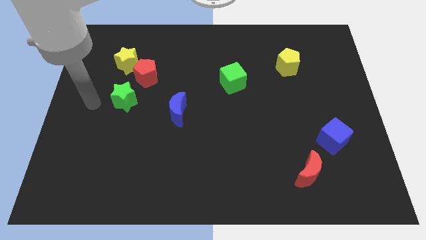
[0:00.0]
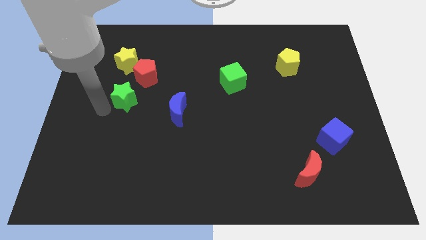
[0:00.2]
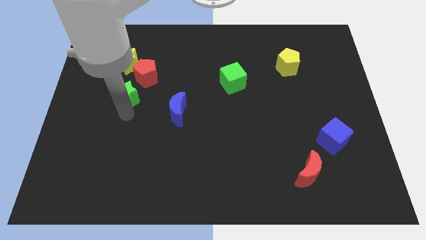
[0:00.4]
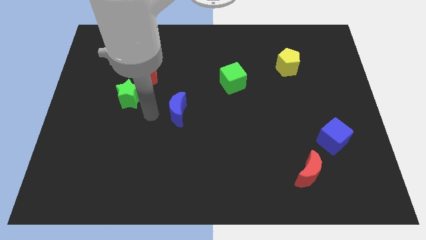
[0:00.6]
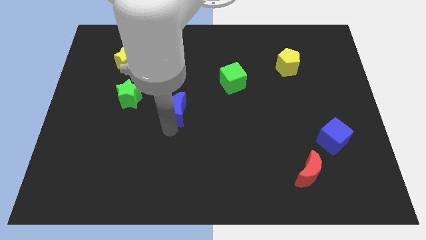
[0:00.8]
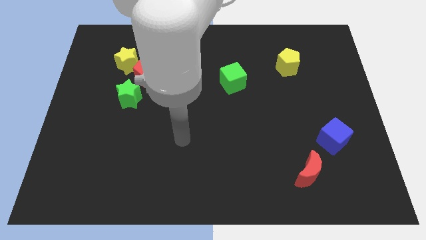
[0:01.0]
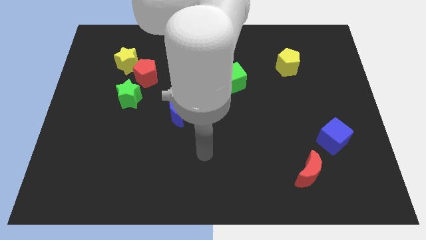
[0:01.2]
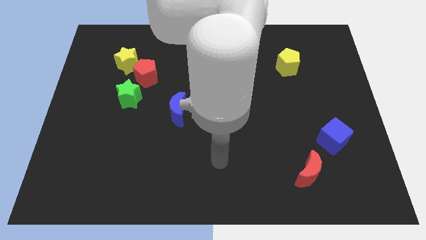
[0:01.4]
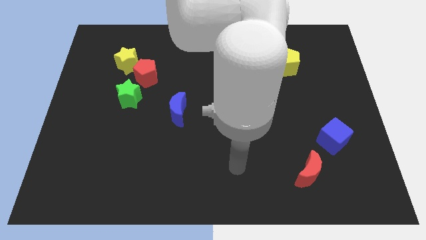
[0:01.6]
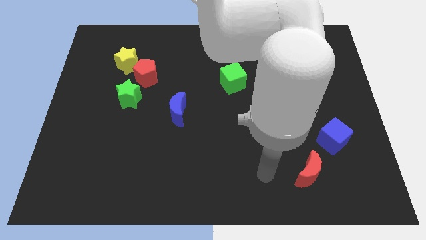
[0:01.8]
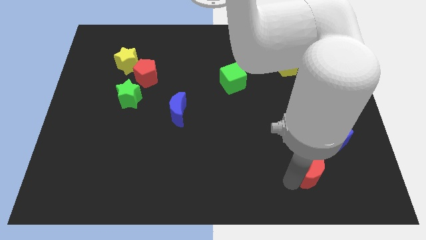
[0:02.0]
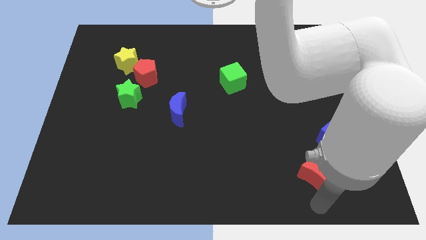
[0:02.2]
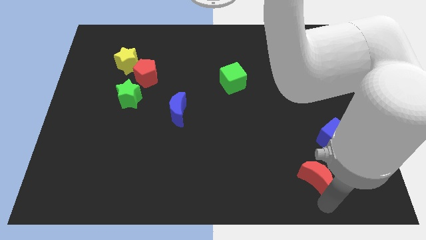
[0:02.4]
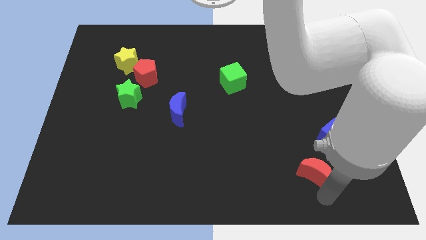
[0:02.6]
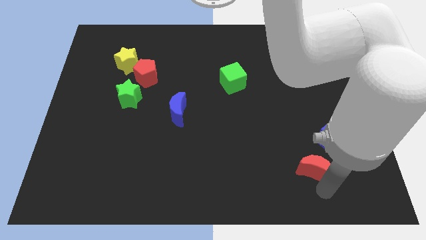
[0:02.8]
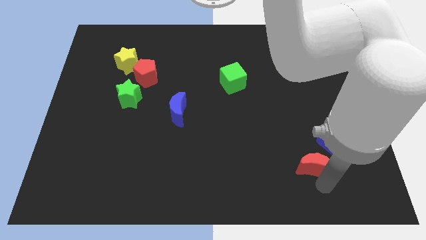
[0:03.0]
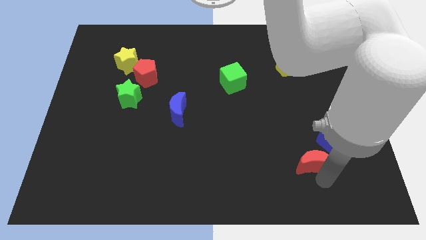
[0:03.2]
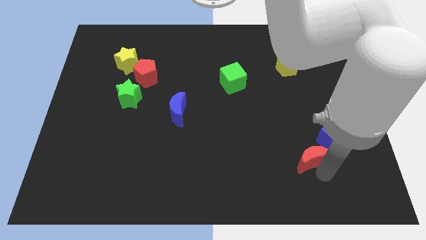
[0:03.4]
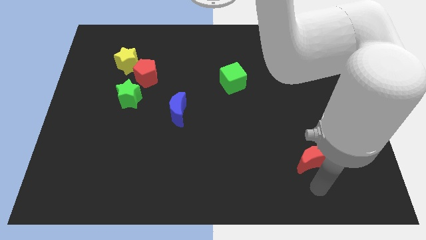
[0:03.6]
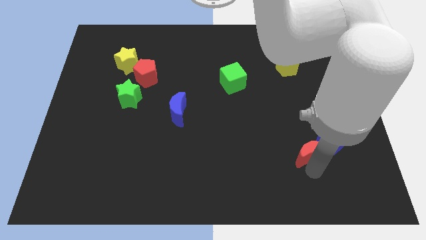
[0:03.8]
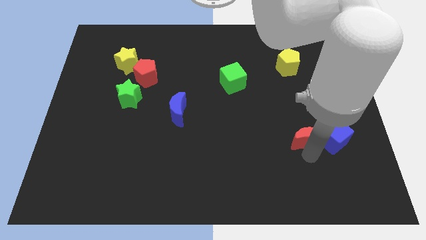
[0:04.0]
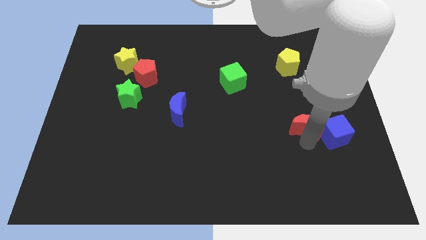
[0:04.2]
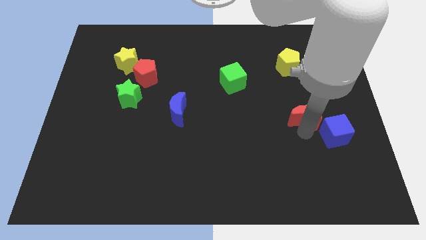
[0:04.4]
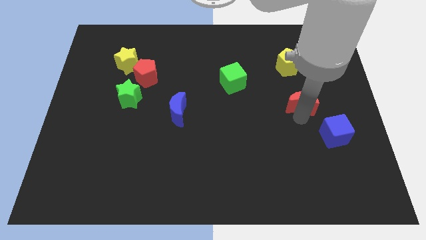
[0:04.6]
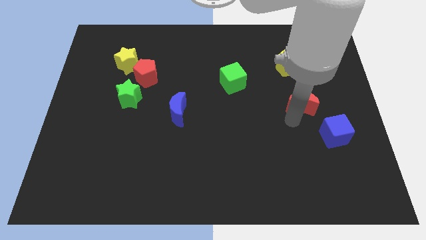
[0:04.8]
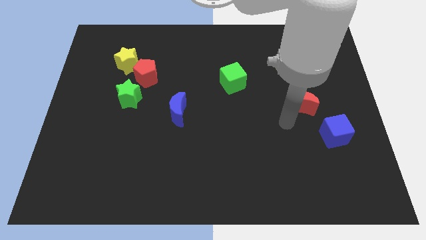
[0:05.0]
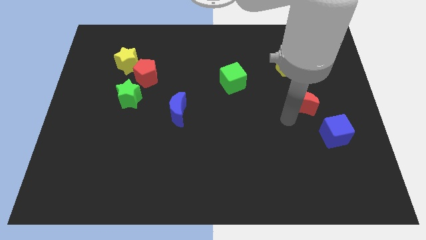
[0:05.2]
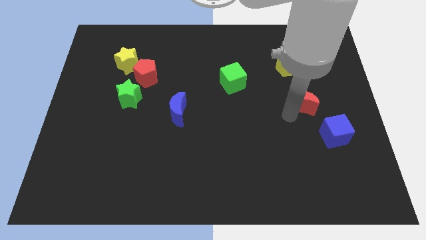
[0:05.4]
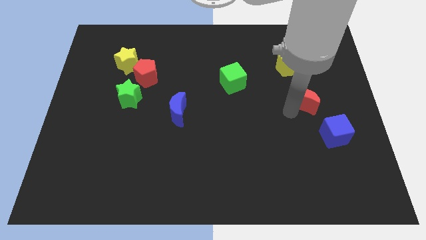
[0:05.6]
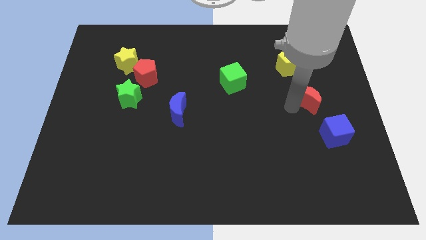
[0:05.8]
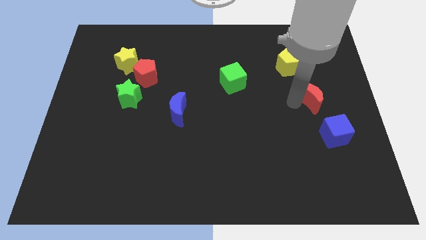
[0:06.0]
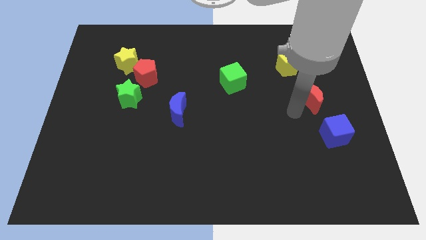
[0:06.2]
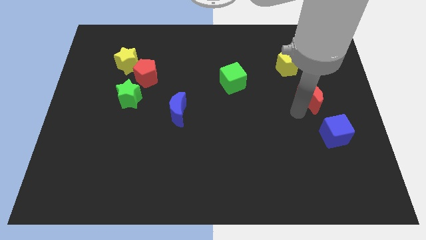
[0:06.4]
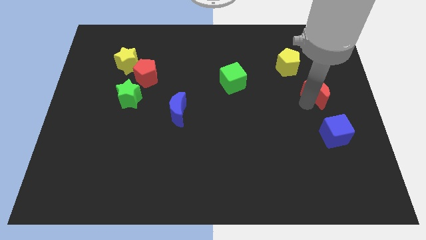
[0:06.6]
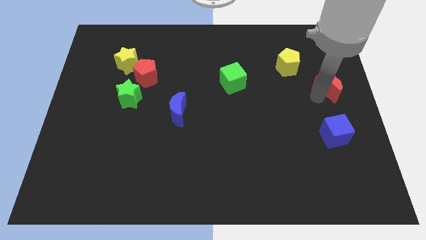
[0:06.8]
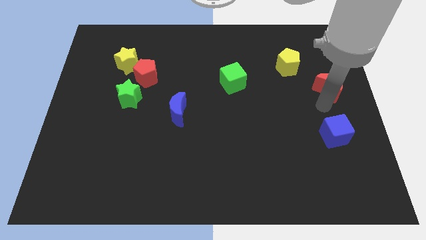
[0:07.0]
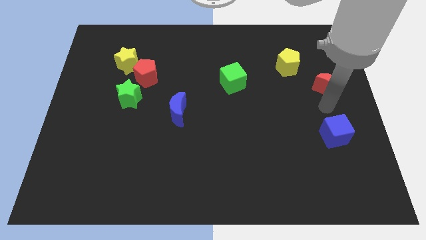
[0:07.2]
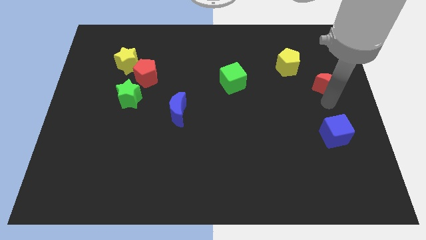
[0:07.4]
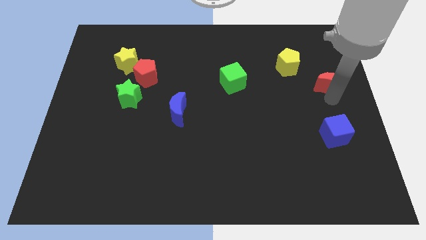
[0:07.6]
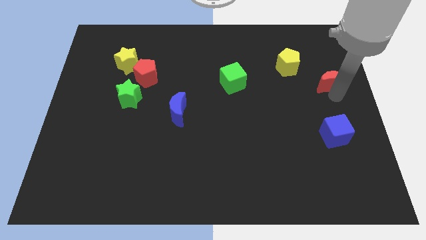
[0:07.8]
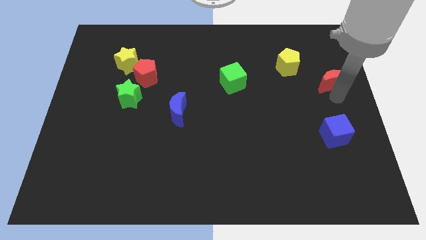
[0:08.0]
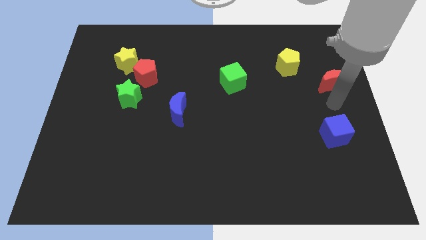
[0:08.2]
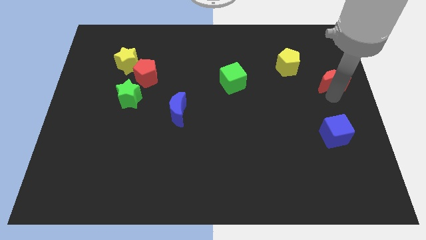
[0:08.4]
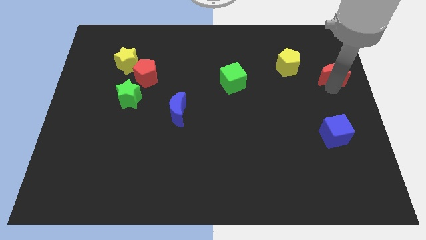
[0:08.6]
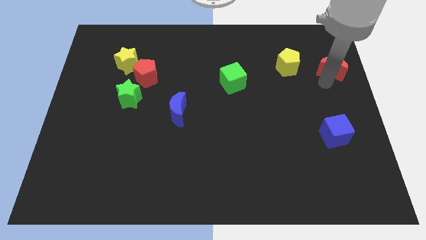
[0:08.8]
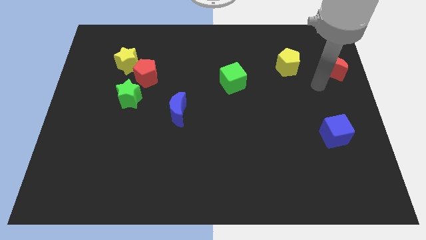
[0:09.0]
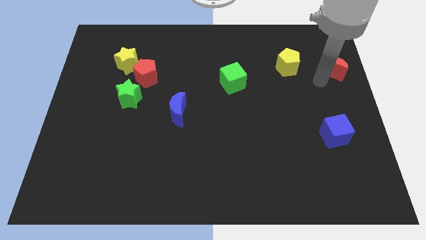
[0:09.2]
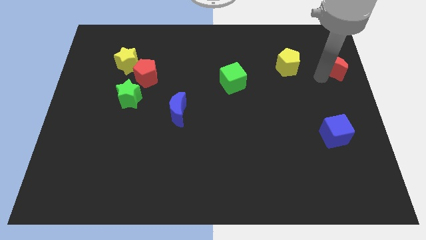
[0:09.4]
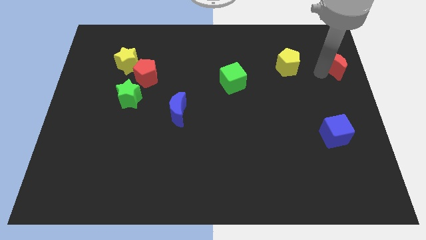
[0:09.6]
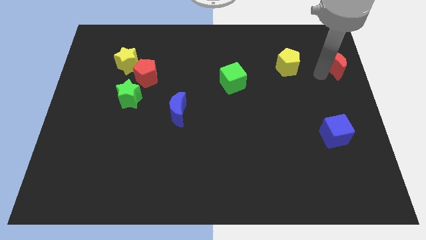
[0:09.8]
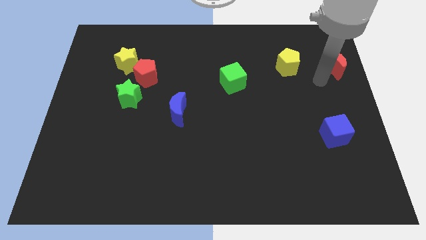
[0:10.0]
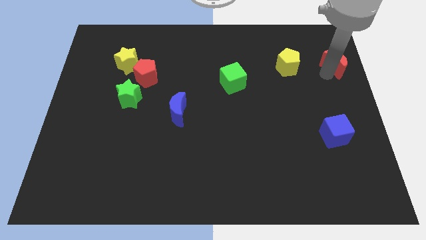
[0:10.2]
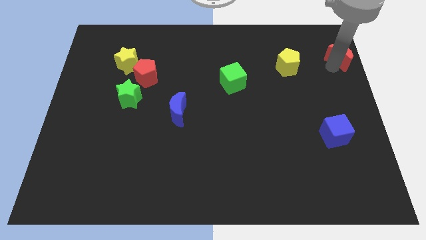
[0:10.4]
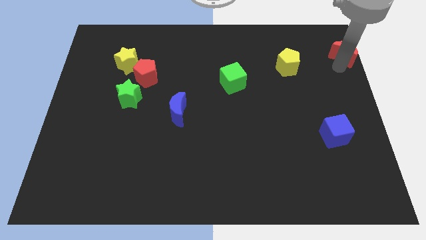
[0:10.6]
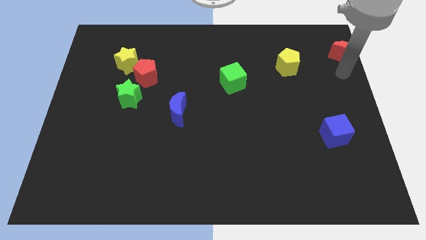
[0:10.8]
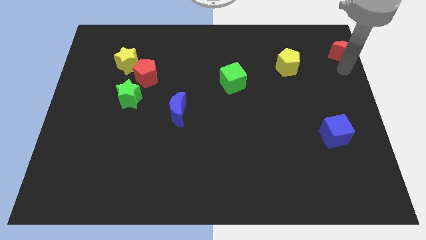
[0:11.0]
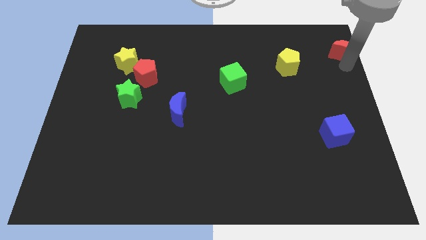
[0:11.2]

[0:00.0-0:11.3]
put the red moon to the top right corner
